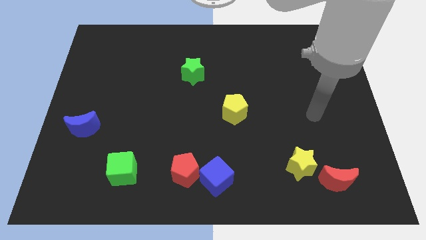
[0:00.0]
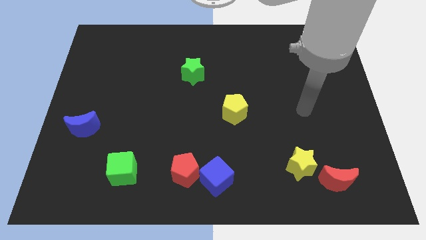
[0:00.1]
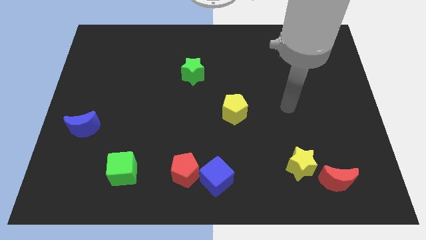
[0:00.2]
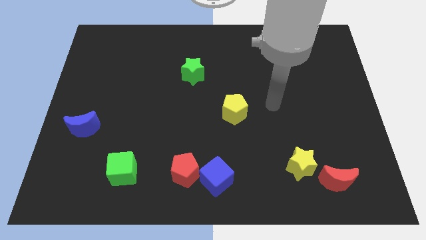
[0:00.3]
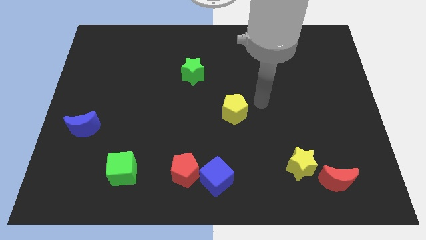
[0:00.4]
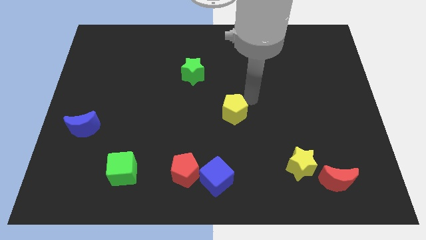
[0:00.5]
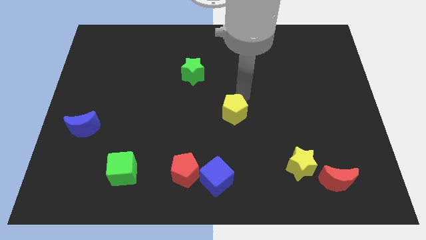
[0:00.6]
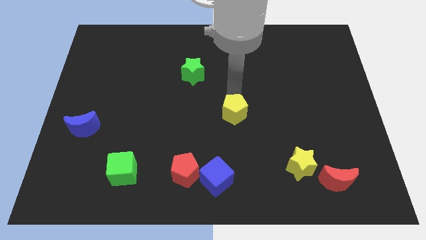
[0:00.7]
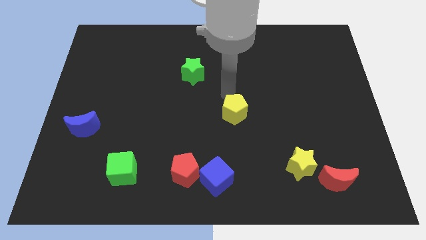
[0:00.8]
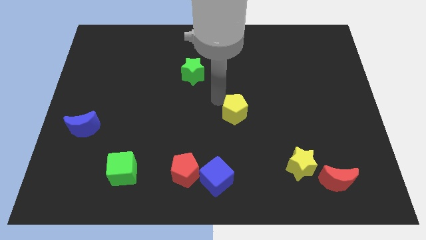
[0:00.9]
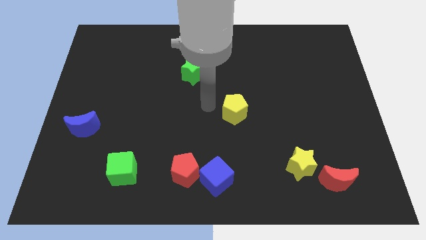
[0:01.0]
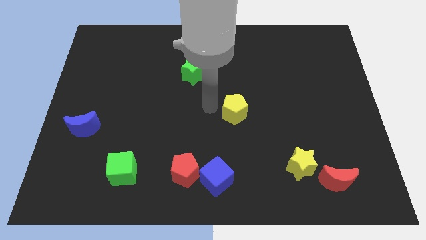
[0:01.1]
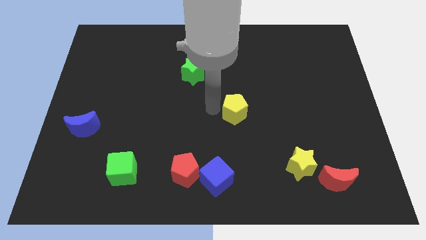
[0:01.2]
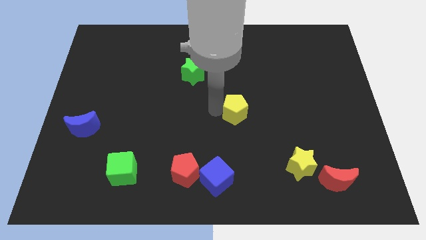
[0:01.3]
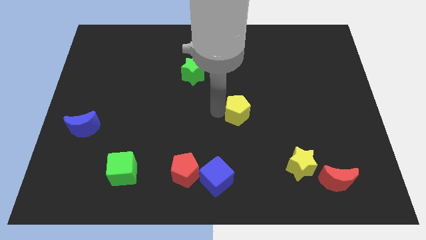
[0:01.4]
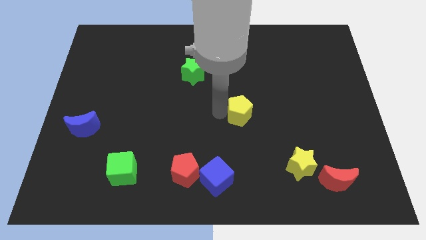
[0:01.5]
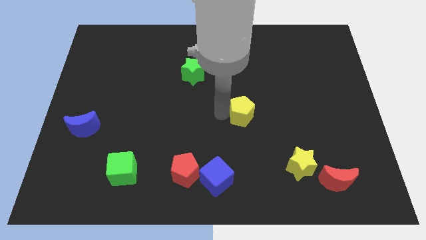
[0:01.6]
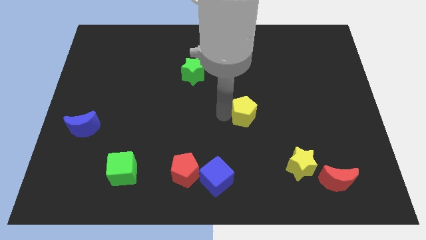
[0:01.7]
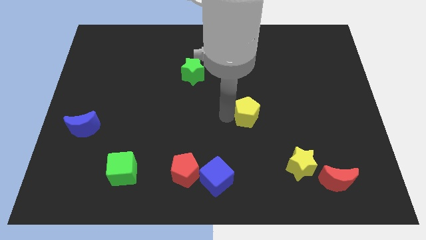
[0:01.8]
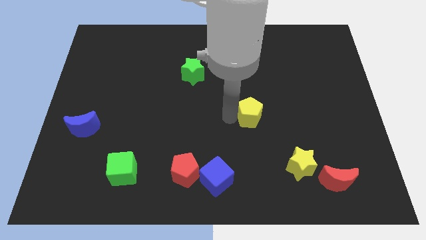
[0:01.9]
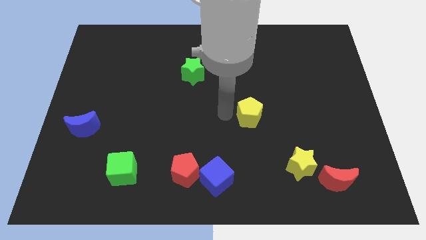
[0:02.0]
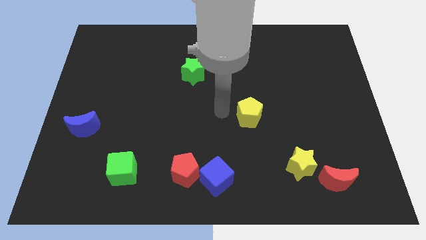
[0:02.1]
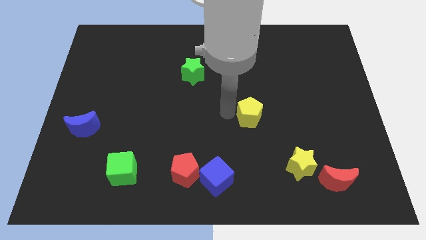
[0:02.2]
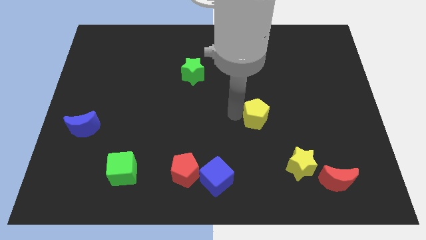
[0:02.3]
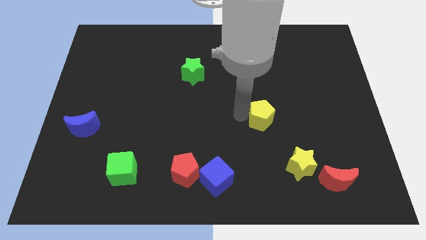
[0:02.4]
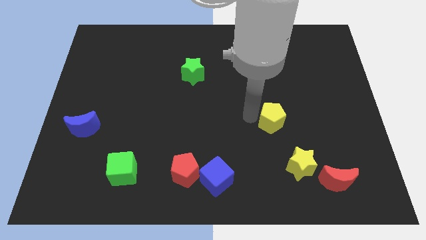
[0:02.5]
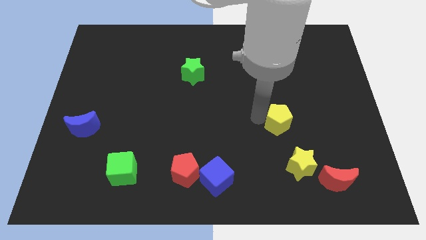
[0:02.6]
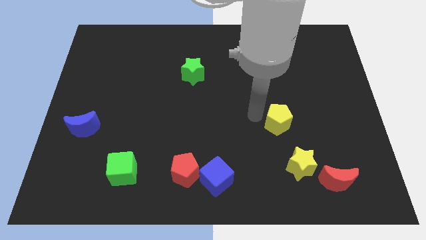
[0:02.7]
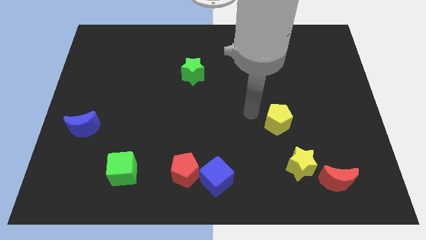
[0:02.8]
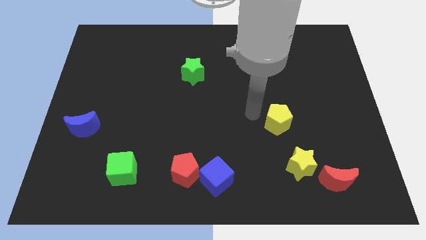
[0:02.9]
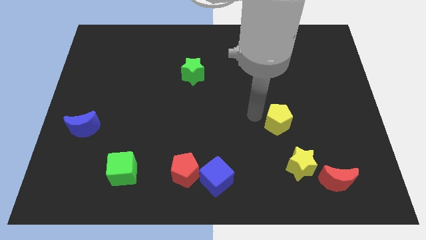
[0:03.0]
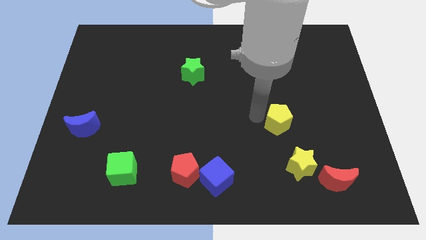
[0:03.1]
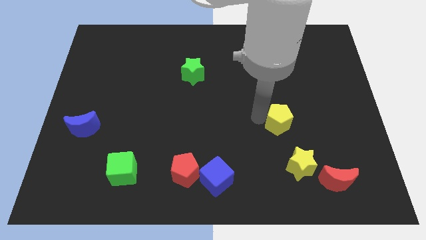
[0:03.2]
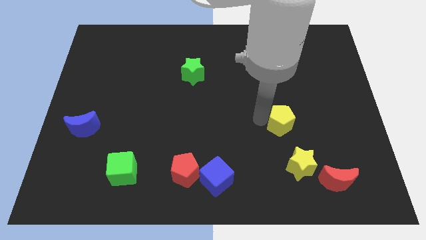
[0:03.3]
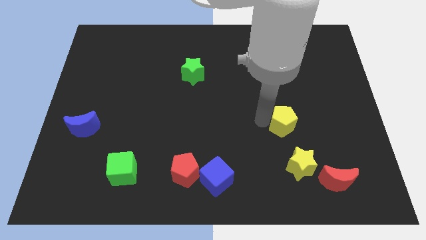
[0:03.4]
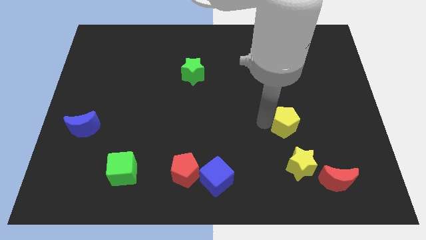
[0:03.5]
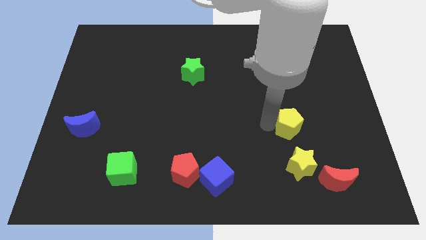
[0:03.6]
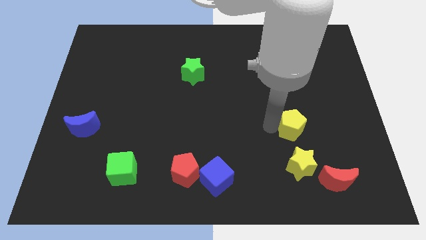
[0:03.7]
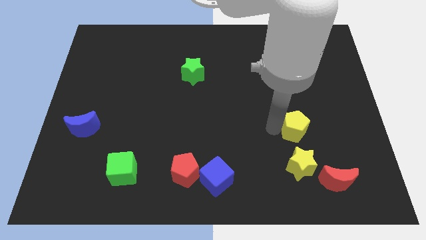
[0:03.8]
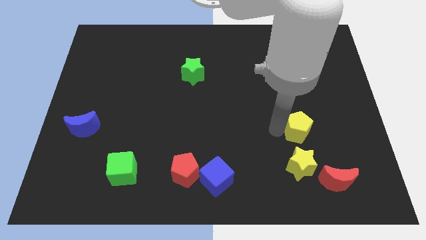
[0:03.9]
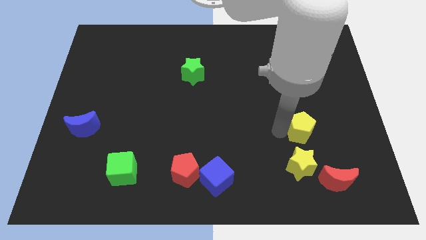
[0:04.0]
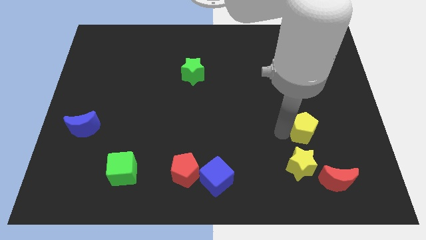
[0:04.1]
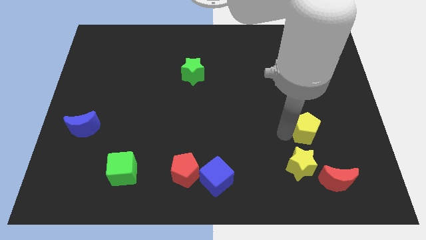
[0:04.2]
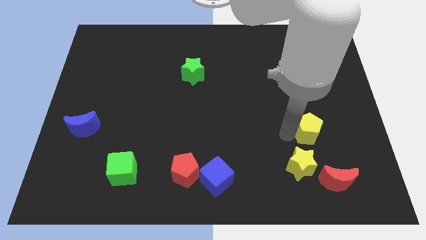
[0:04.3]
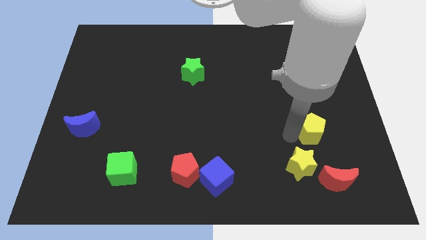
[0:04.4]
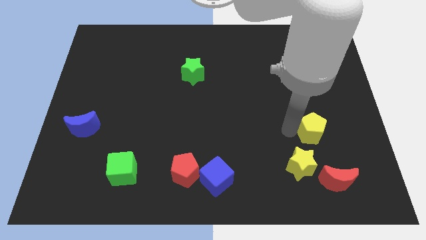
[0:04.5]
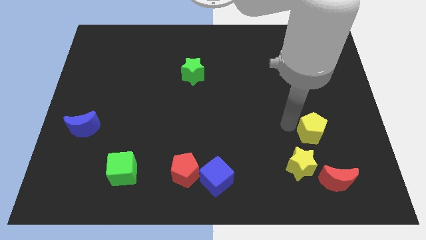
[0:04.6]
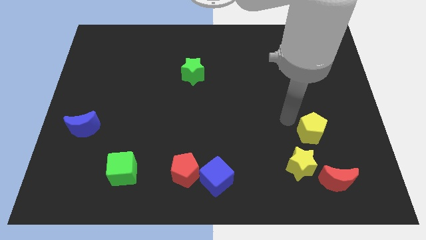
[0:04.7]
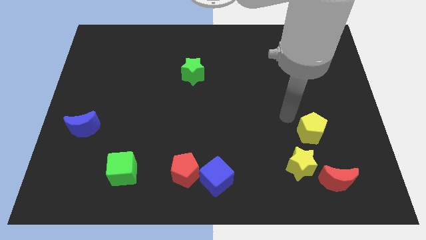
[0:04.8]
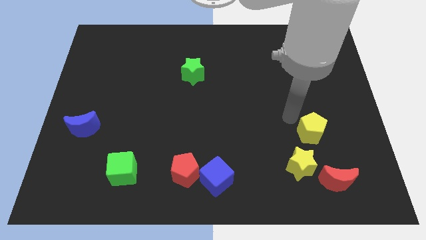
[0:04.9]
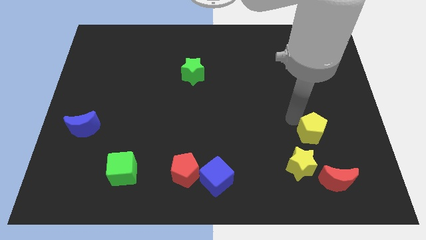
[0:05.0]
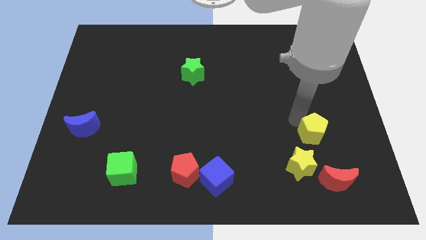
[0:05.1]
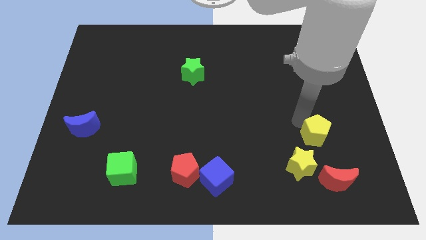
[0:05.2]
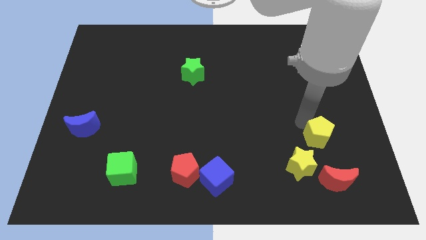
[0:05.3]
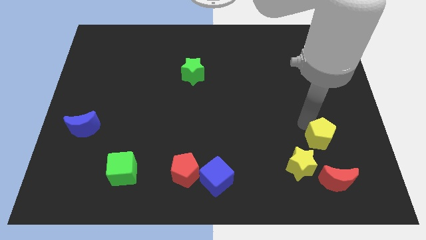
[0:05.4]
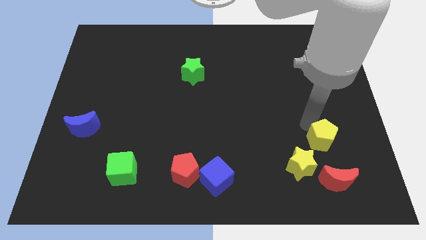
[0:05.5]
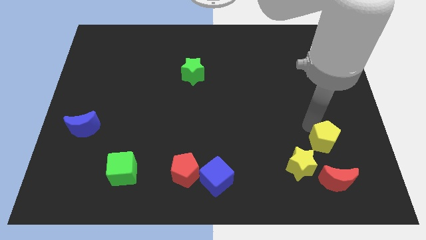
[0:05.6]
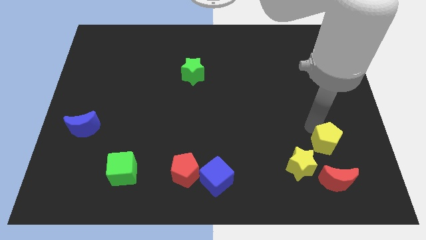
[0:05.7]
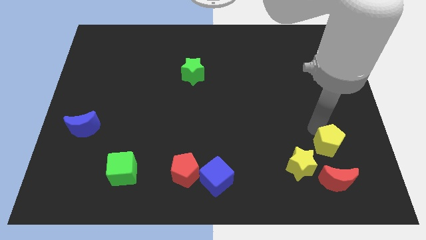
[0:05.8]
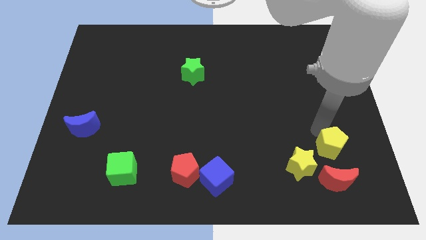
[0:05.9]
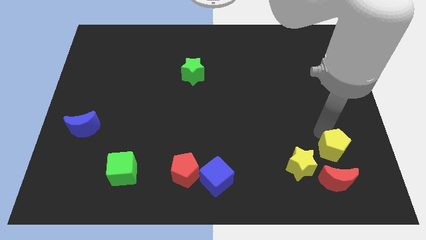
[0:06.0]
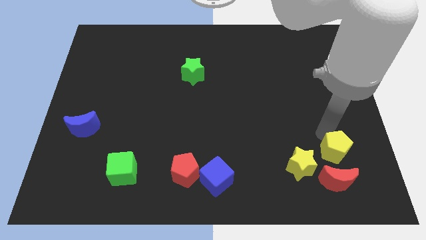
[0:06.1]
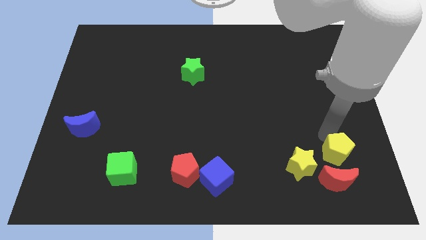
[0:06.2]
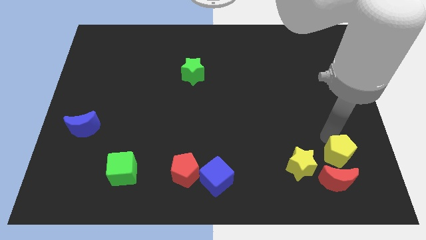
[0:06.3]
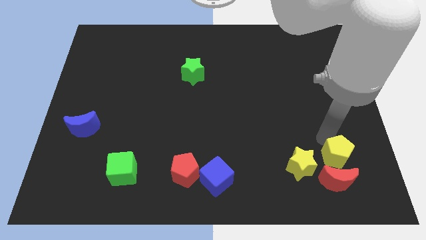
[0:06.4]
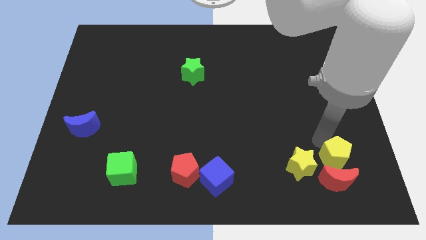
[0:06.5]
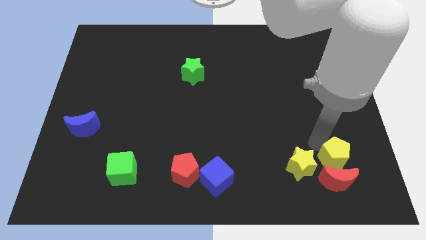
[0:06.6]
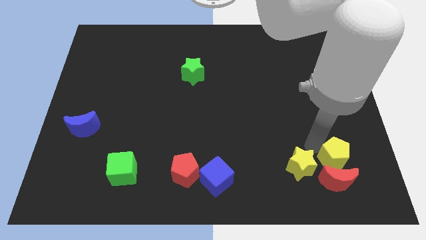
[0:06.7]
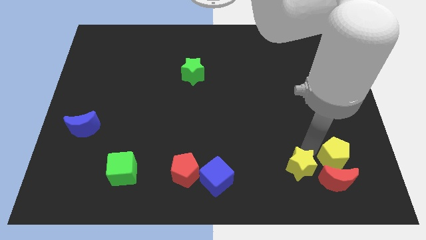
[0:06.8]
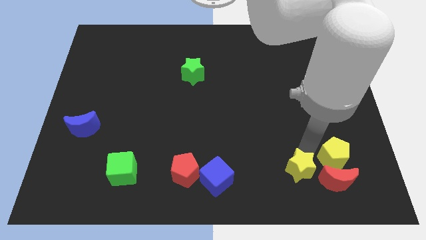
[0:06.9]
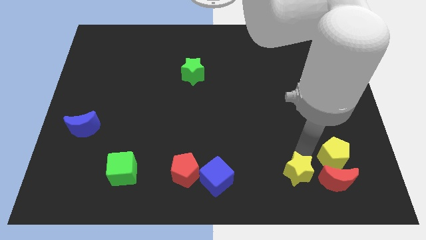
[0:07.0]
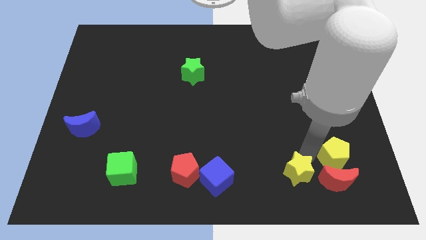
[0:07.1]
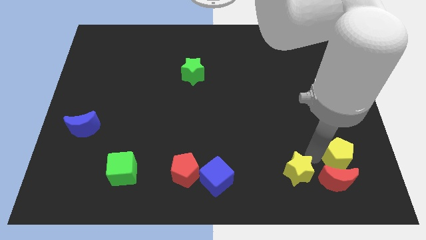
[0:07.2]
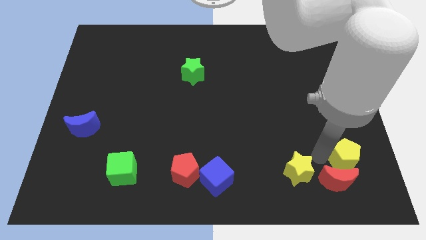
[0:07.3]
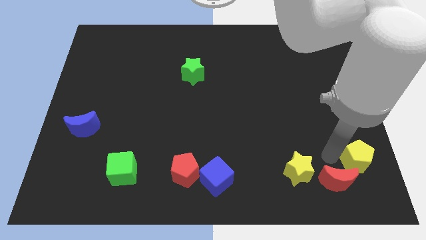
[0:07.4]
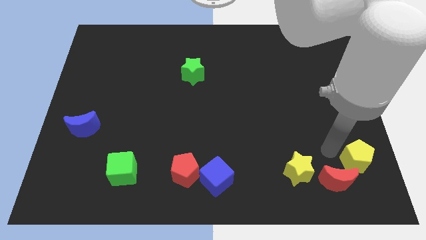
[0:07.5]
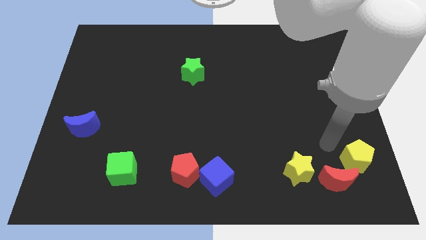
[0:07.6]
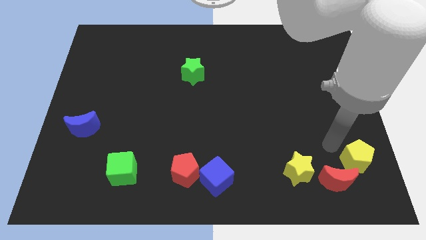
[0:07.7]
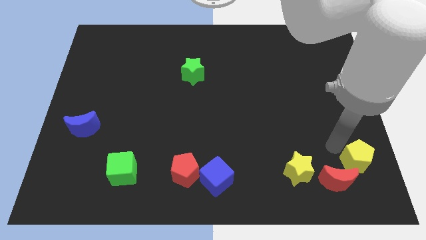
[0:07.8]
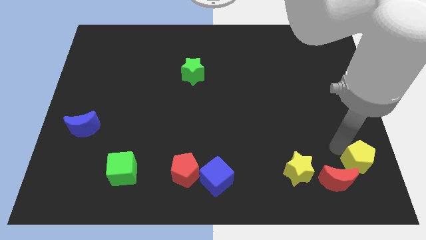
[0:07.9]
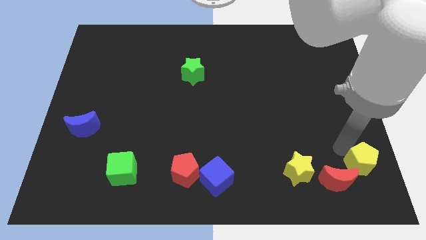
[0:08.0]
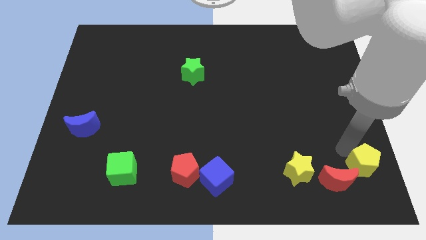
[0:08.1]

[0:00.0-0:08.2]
move the yellow pentagon to the lower right corner
